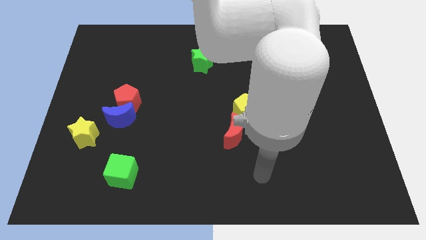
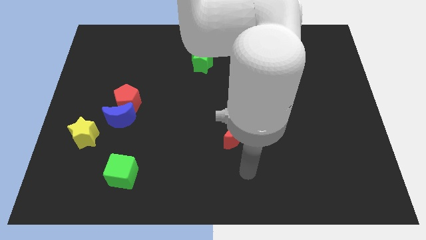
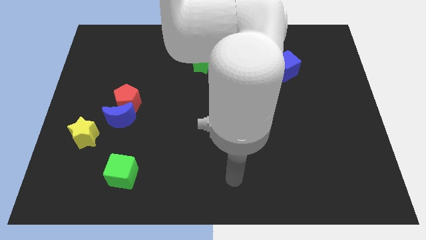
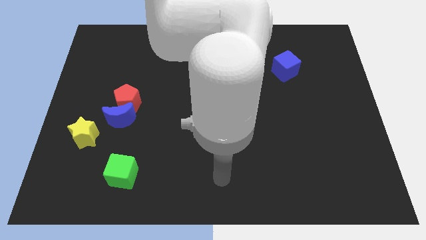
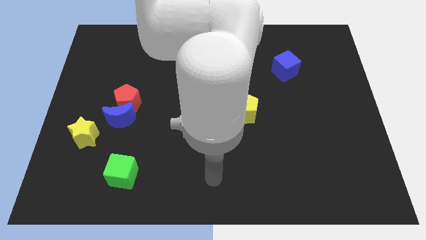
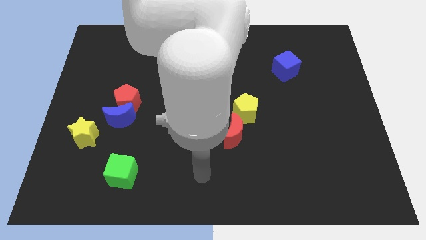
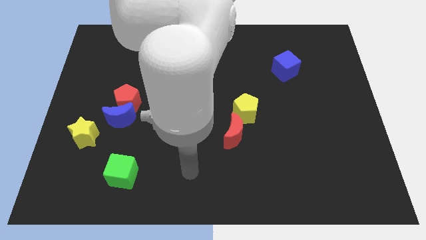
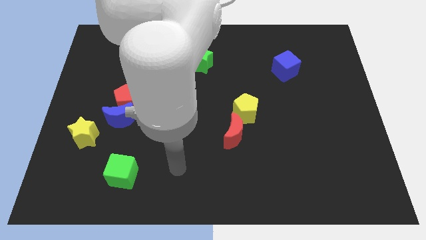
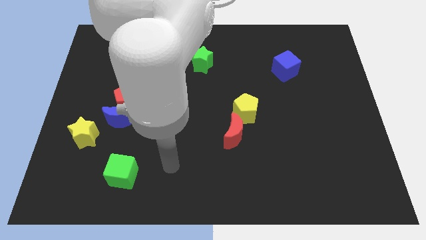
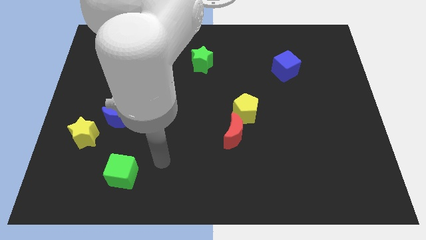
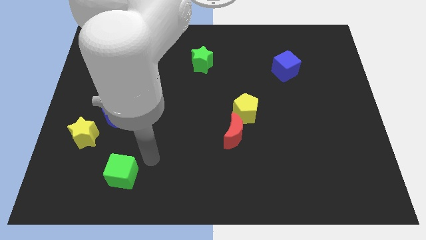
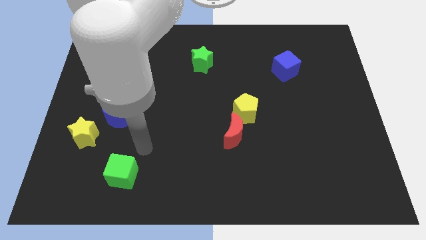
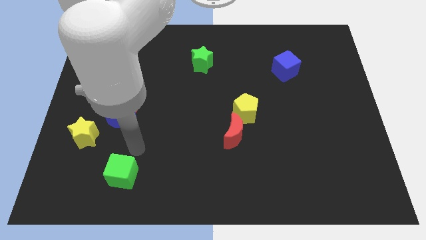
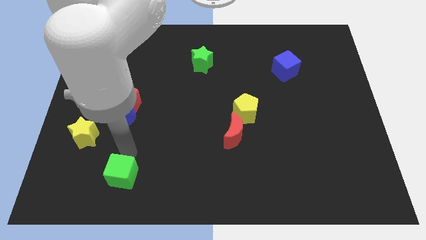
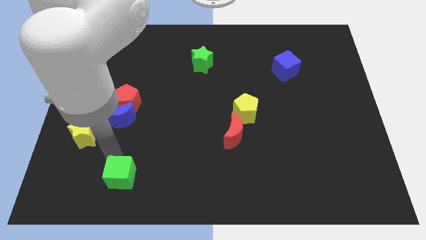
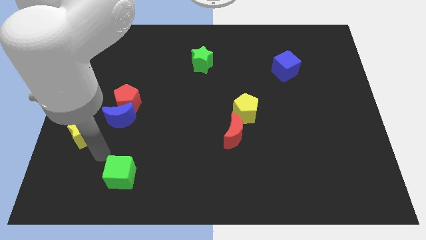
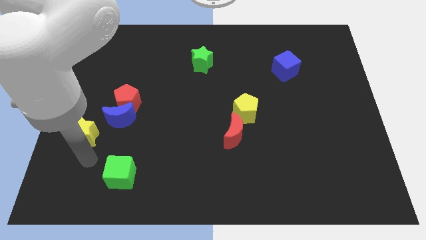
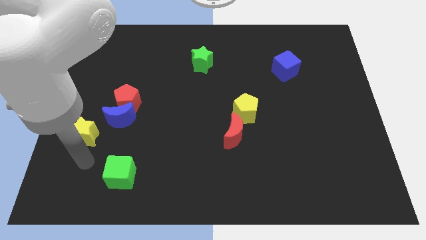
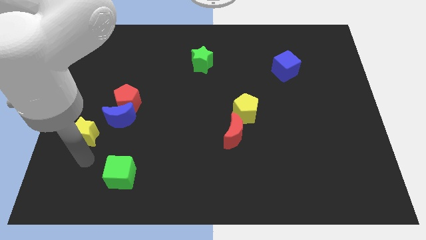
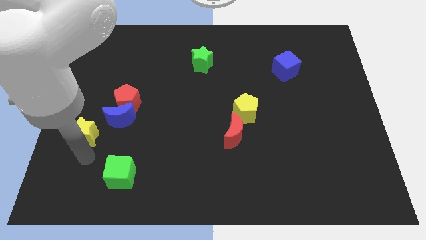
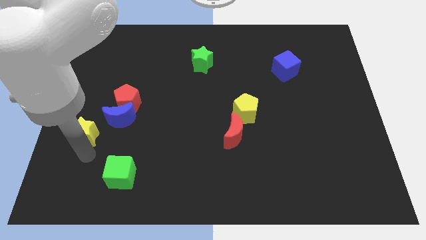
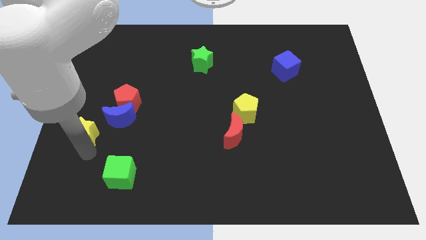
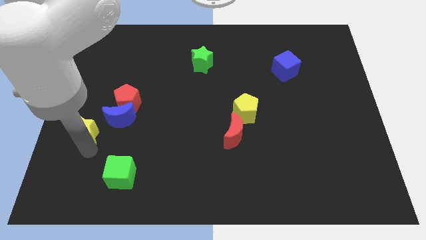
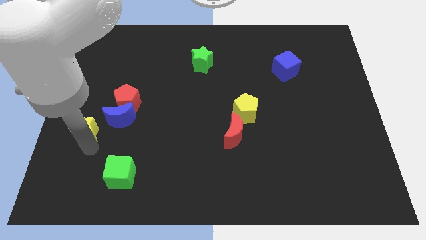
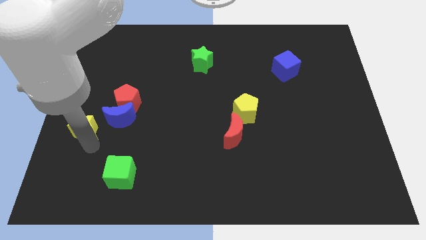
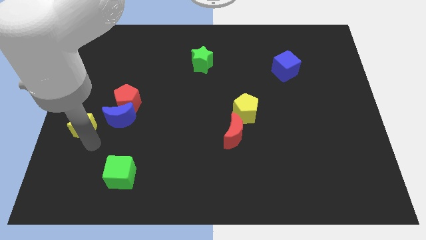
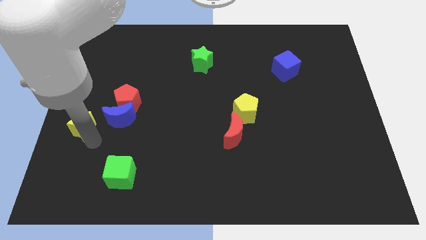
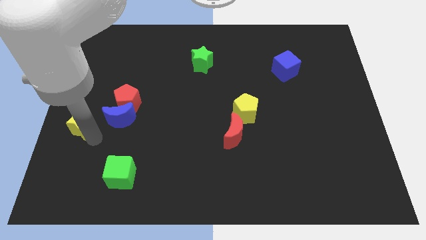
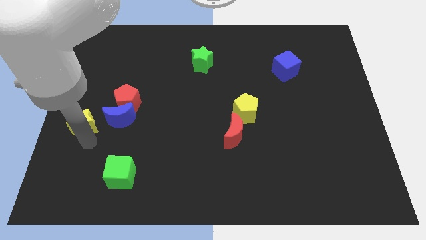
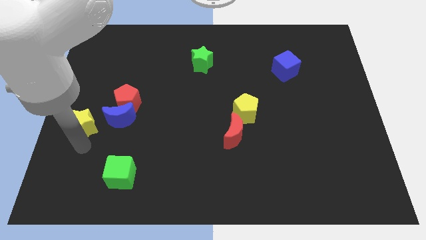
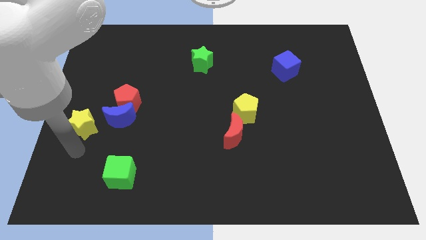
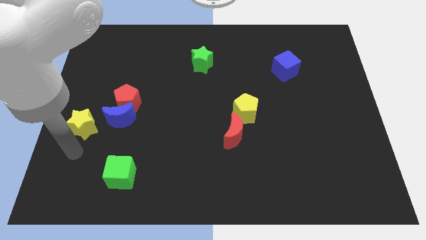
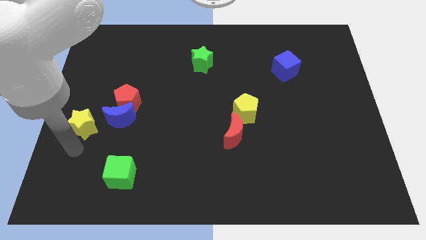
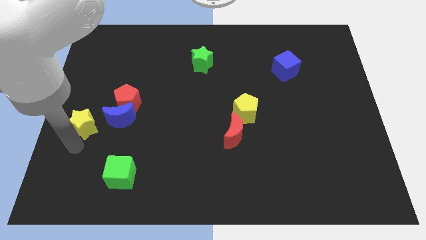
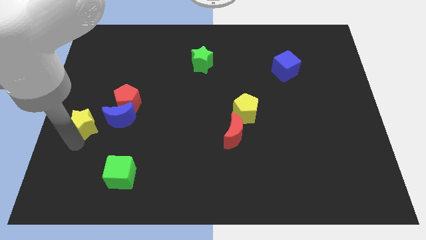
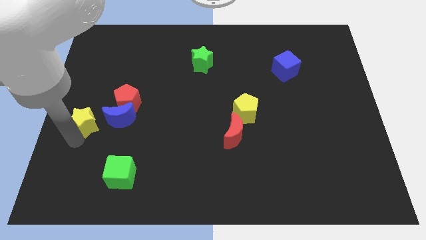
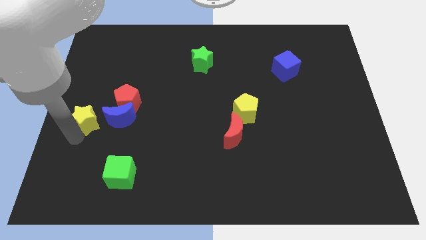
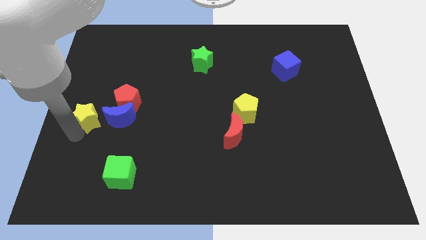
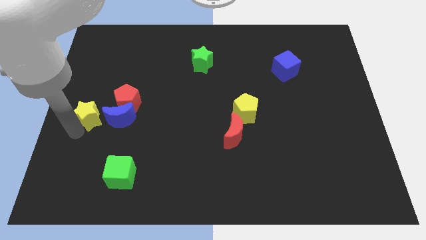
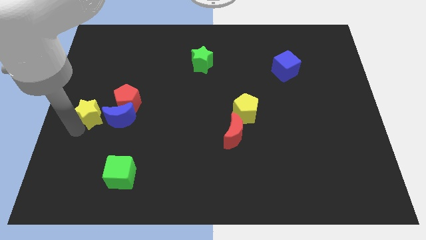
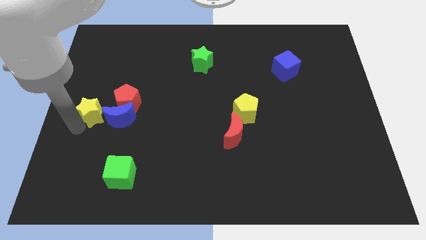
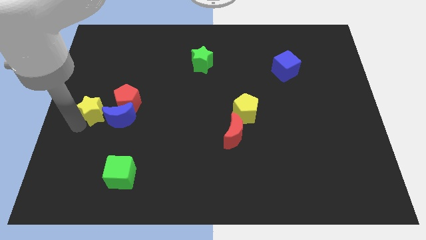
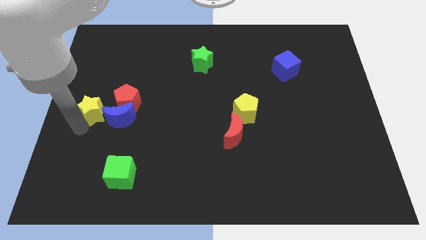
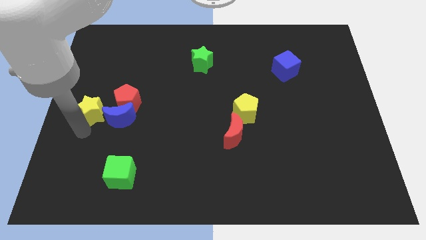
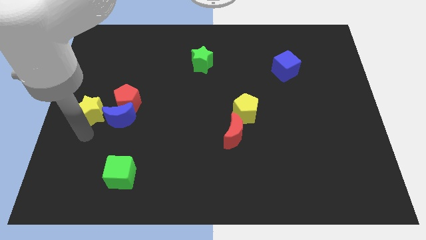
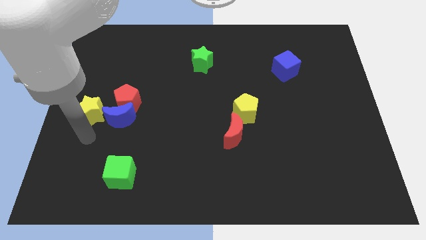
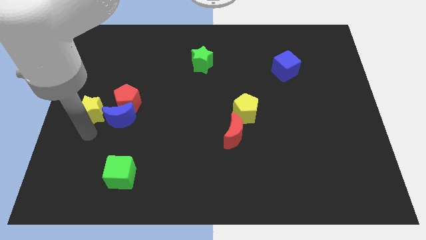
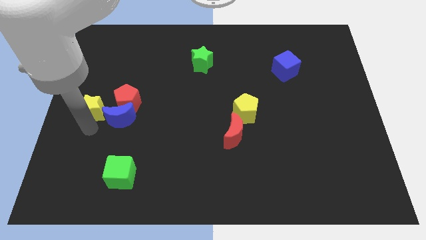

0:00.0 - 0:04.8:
push the yellow star up a little

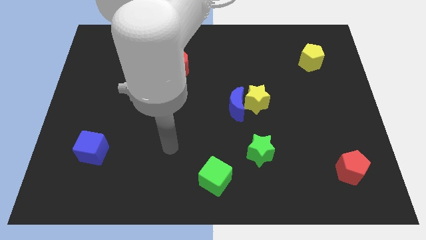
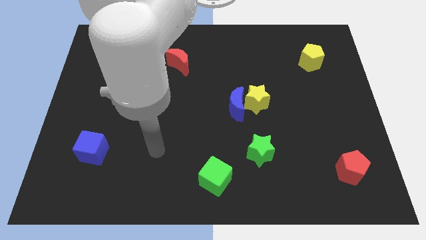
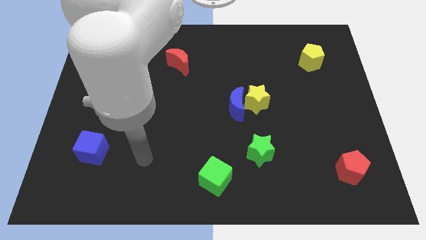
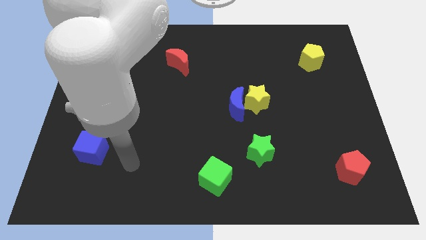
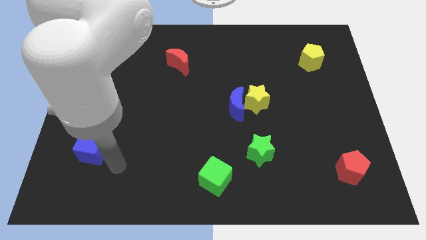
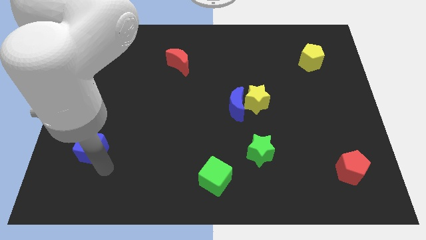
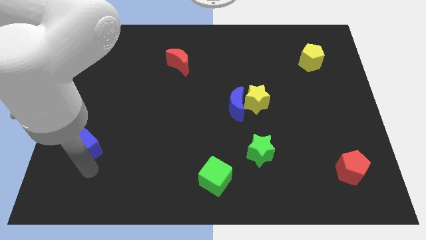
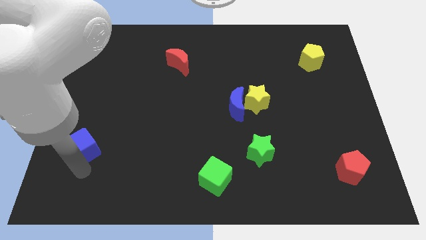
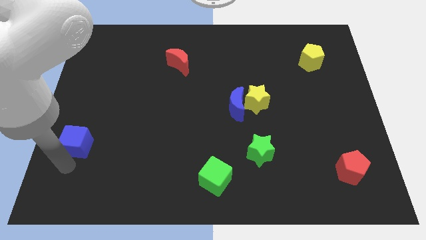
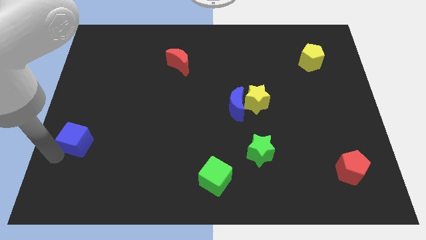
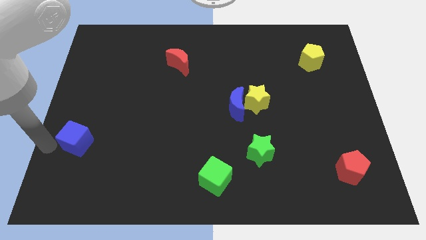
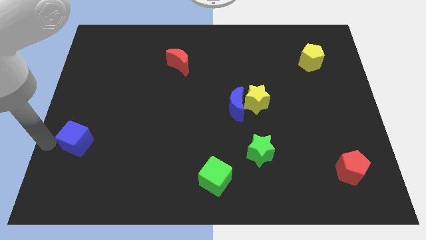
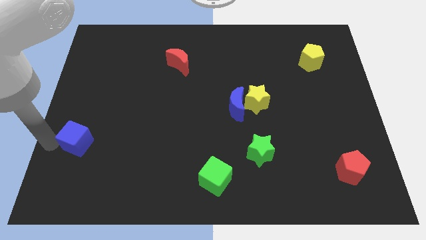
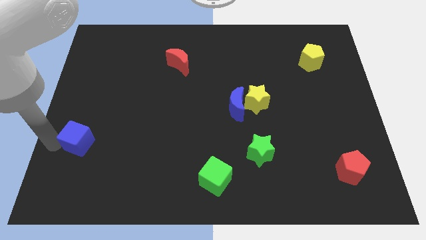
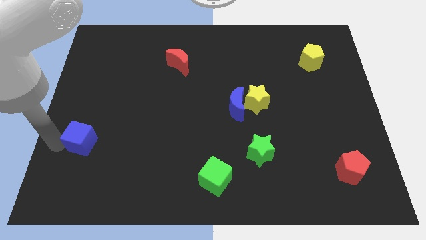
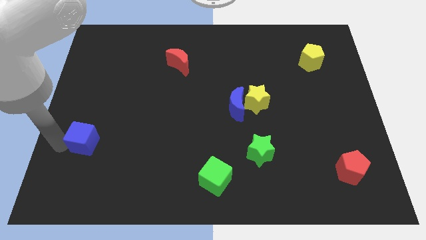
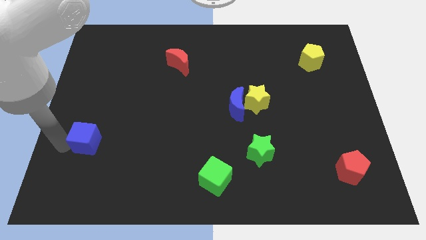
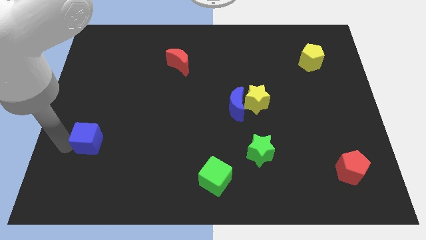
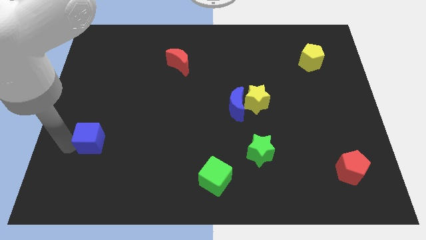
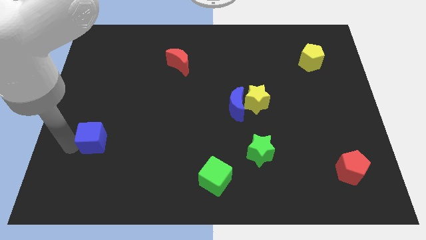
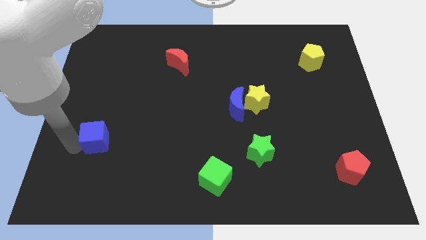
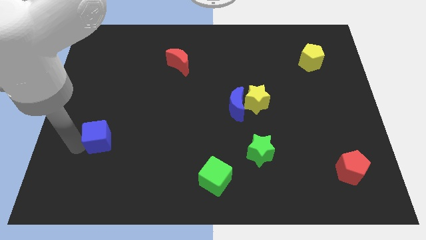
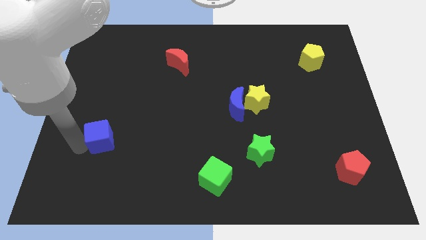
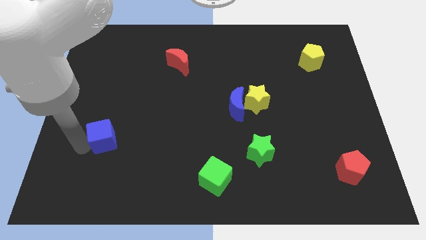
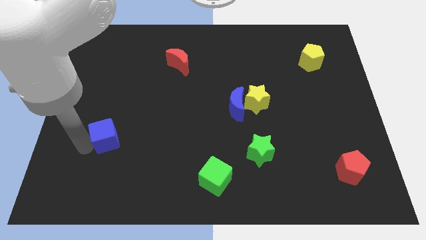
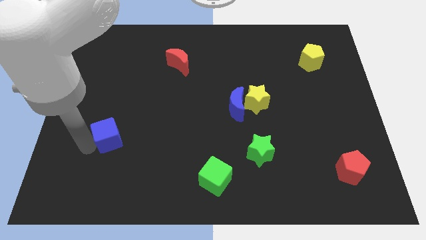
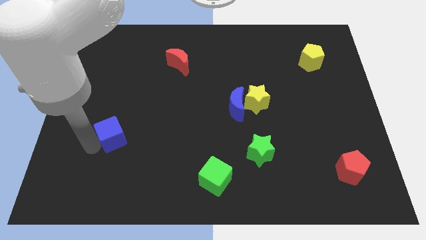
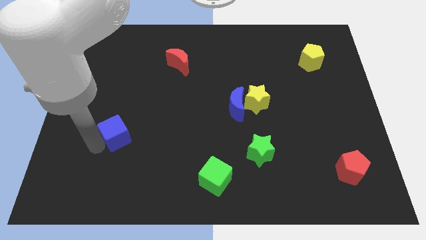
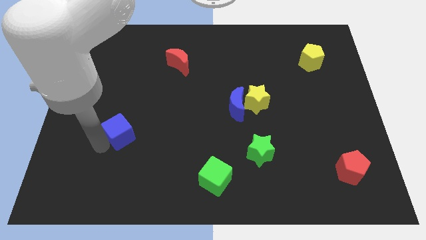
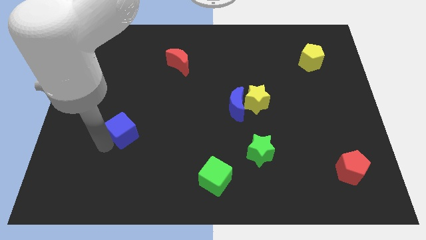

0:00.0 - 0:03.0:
push the blue cube a little bit diagonally up and right

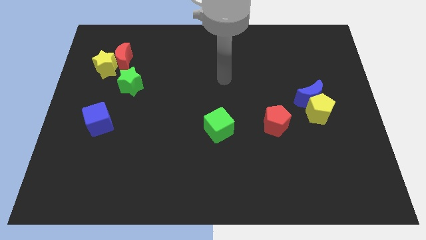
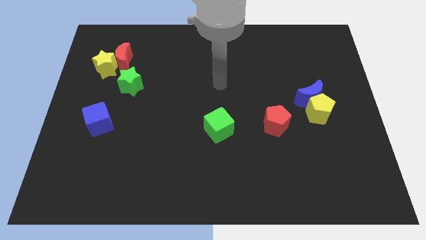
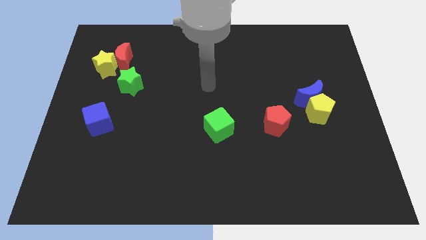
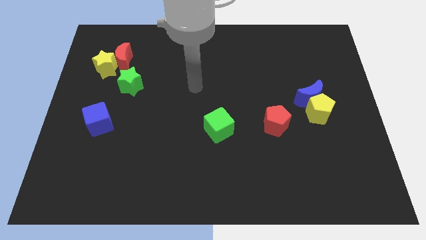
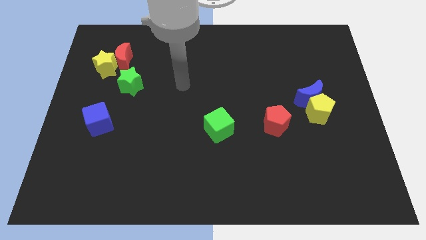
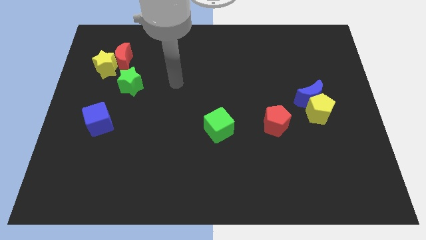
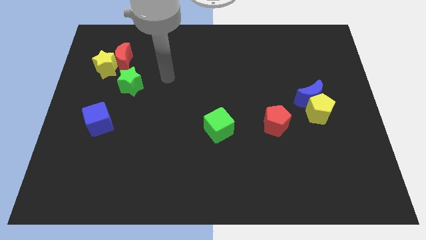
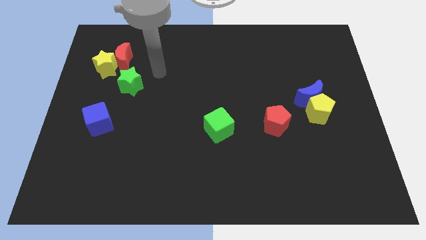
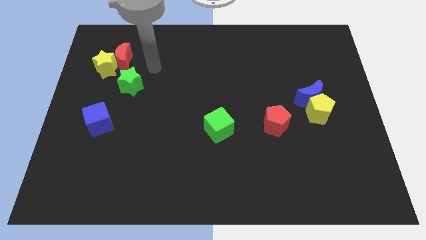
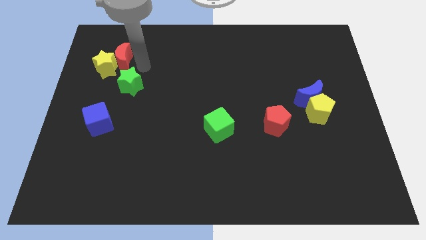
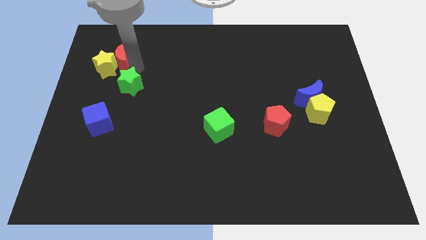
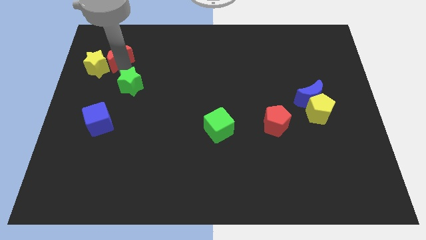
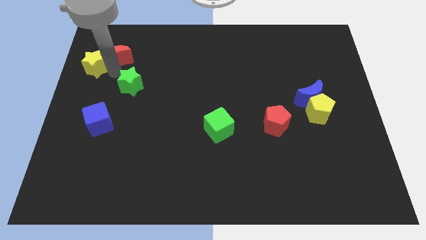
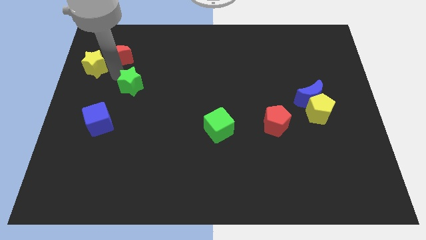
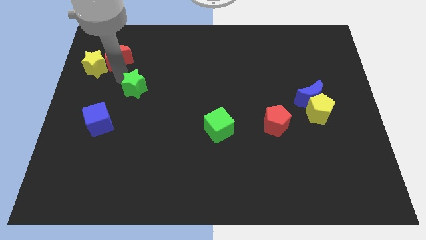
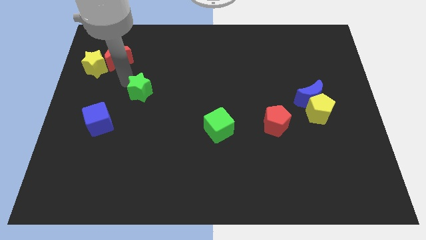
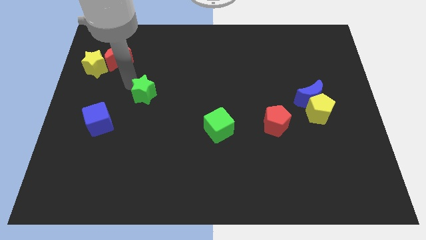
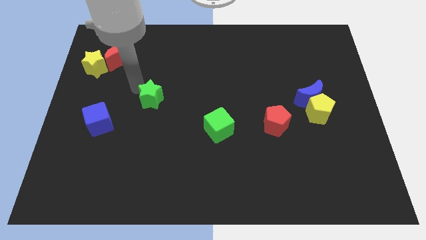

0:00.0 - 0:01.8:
slightly slide the green star downwards and right
